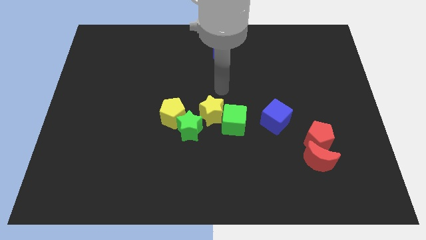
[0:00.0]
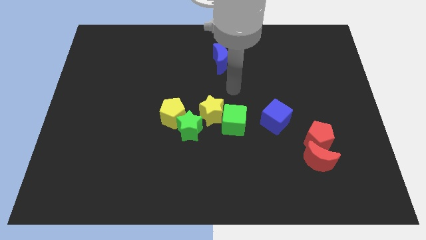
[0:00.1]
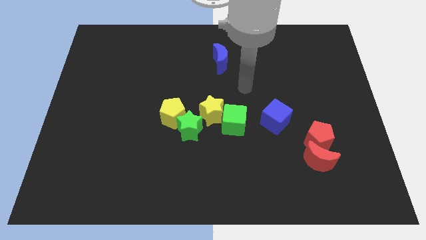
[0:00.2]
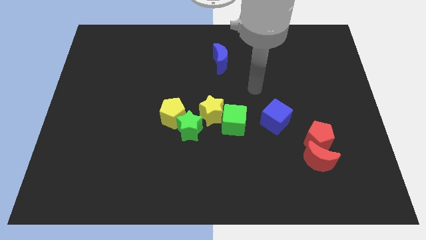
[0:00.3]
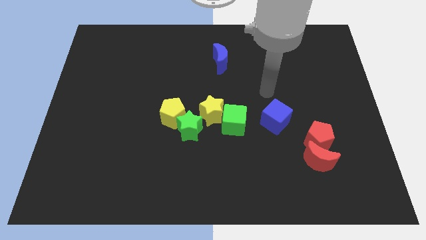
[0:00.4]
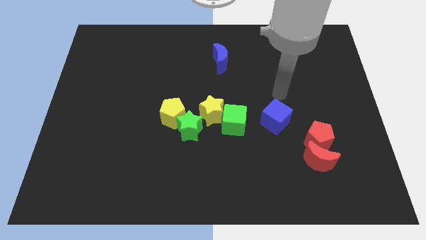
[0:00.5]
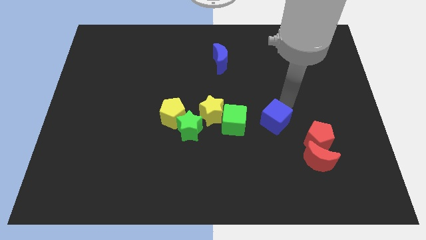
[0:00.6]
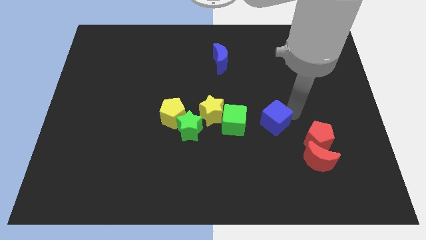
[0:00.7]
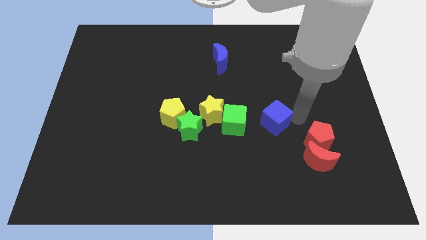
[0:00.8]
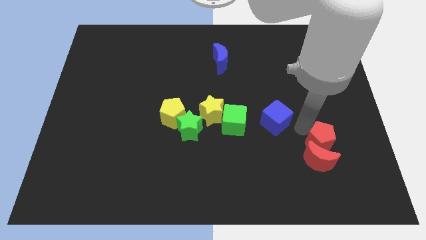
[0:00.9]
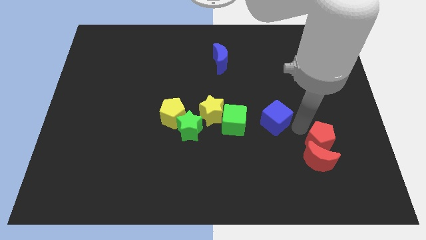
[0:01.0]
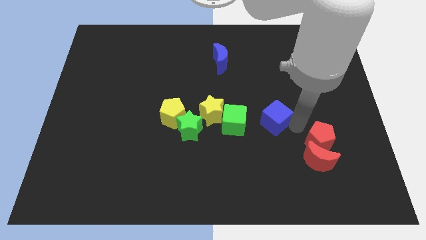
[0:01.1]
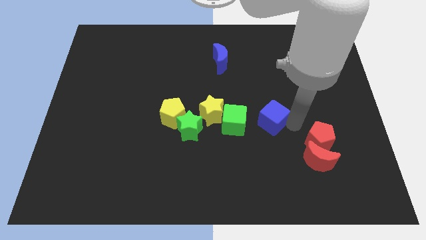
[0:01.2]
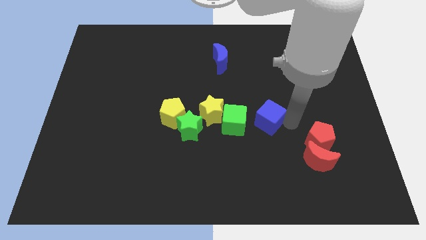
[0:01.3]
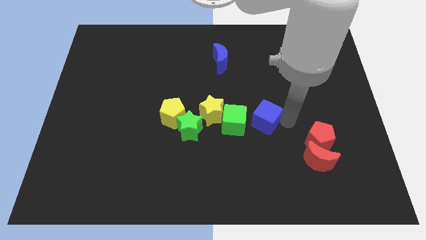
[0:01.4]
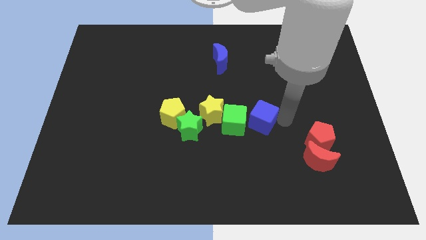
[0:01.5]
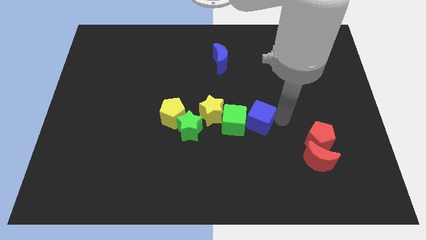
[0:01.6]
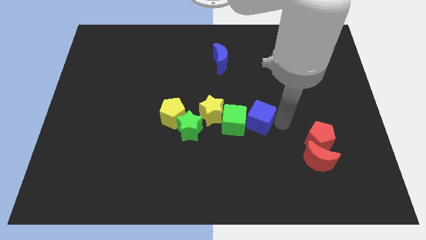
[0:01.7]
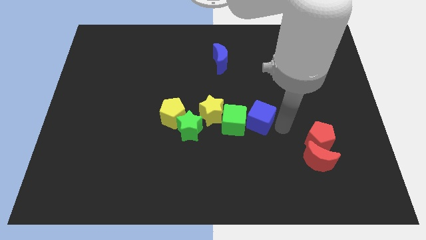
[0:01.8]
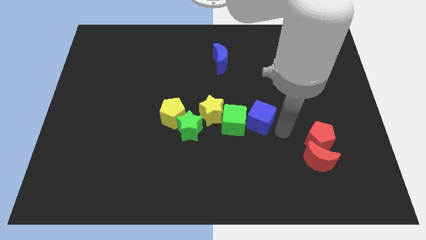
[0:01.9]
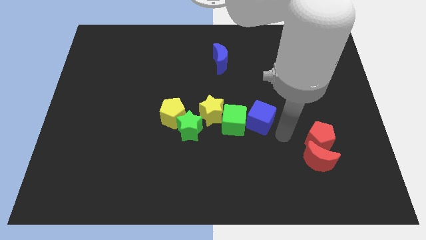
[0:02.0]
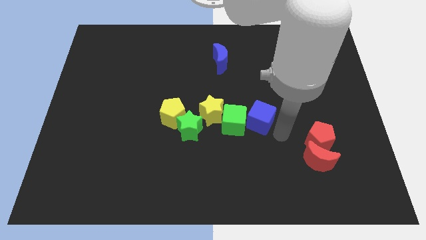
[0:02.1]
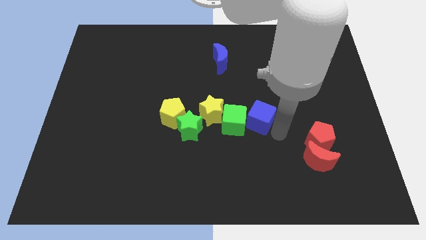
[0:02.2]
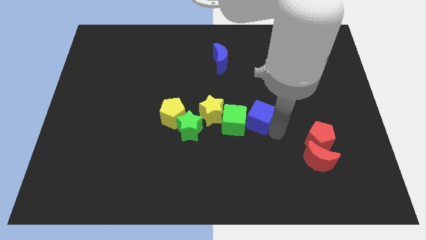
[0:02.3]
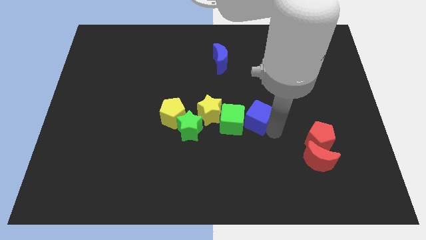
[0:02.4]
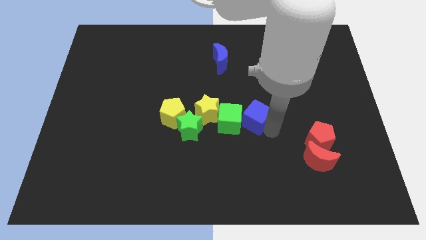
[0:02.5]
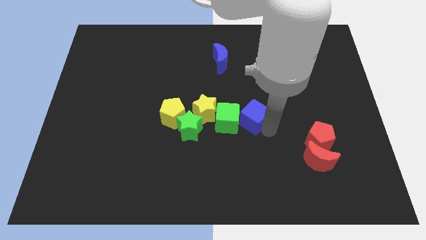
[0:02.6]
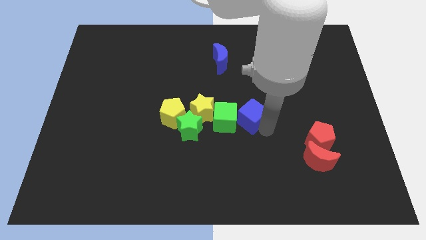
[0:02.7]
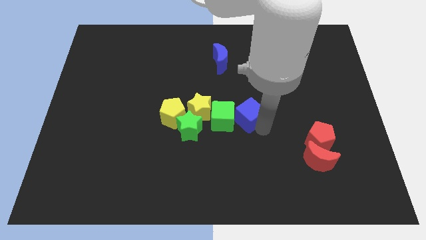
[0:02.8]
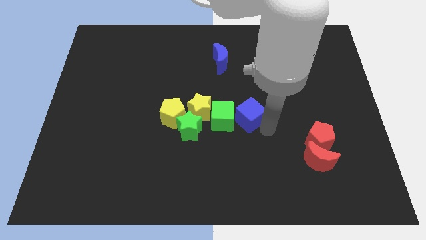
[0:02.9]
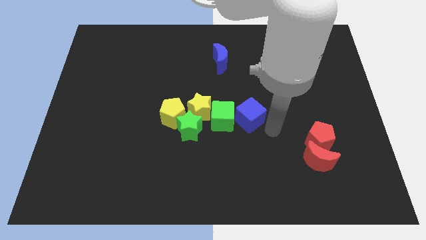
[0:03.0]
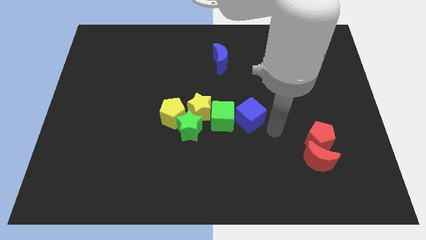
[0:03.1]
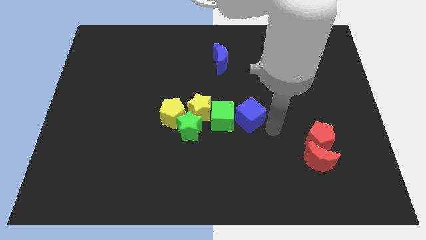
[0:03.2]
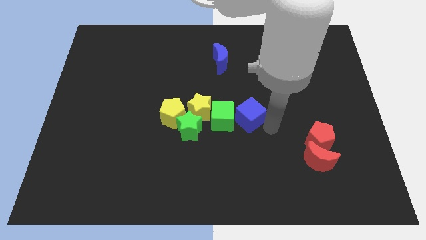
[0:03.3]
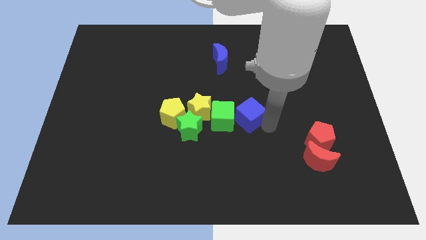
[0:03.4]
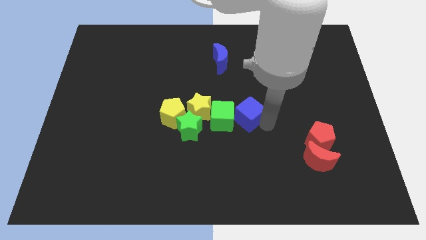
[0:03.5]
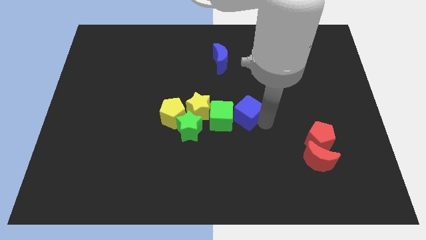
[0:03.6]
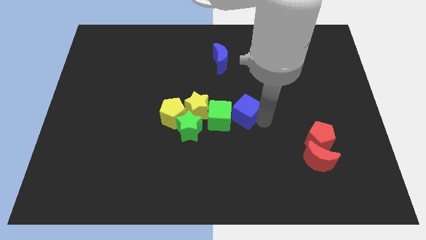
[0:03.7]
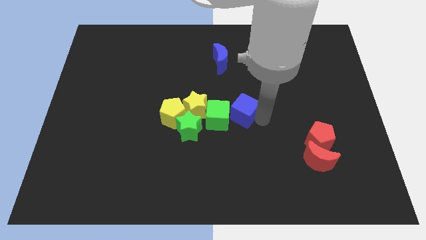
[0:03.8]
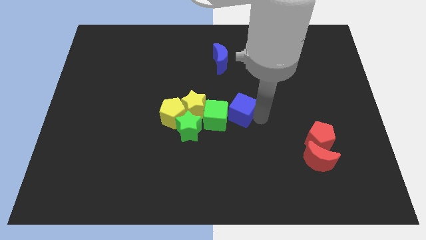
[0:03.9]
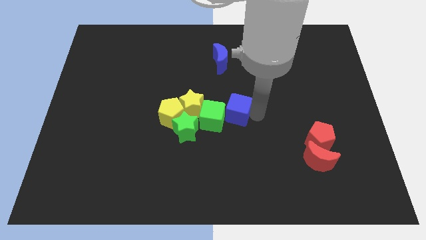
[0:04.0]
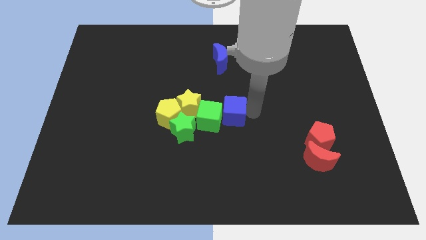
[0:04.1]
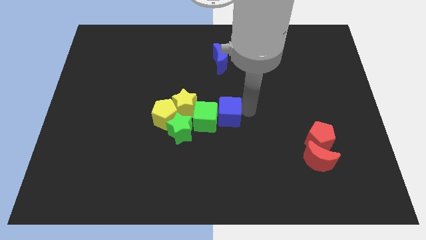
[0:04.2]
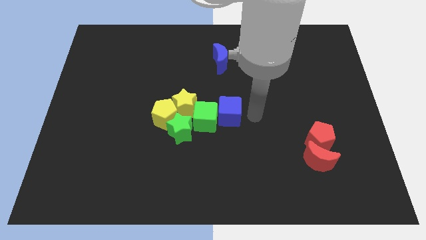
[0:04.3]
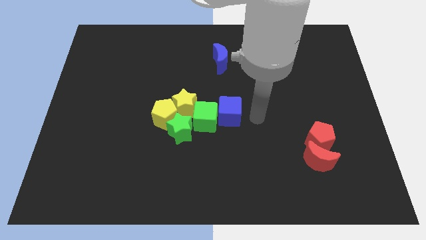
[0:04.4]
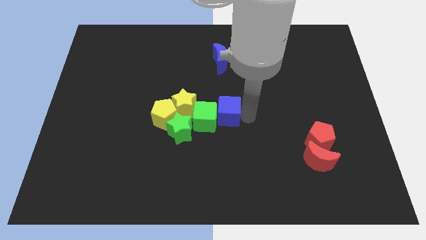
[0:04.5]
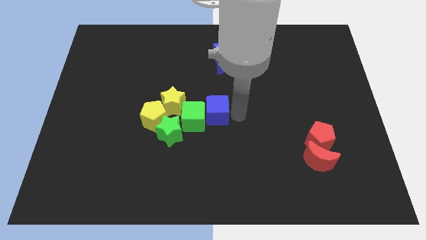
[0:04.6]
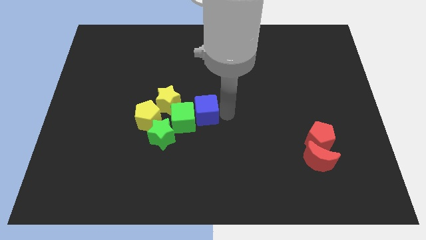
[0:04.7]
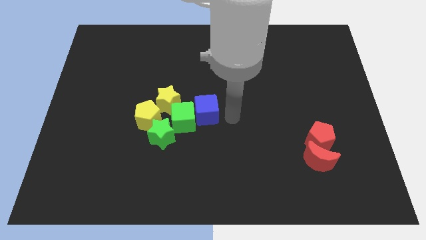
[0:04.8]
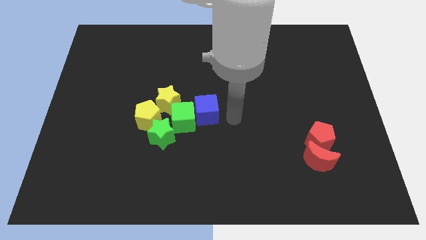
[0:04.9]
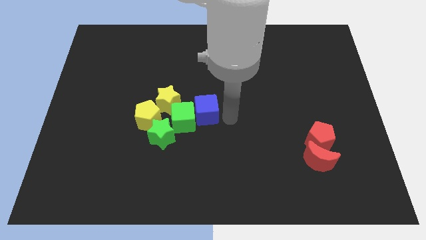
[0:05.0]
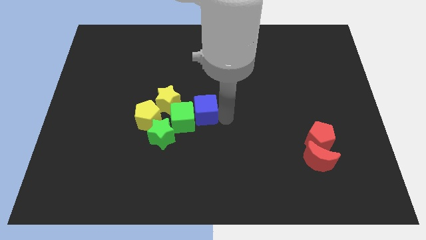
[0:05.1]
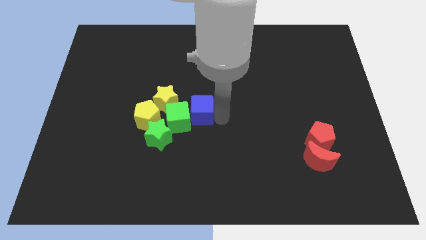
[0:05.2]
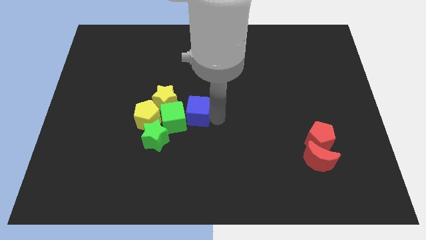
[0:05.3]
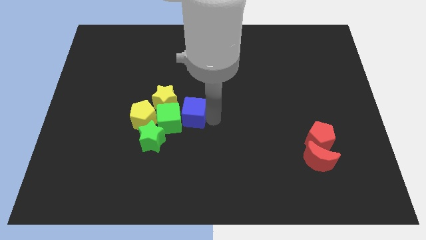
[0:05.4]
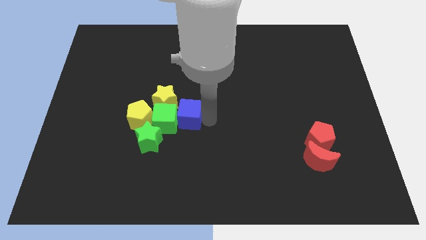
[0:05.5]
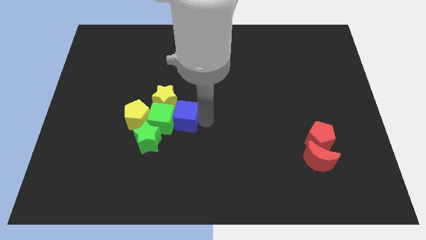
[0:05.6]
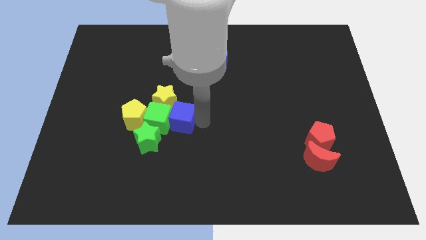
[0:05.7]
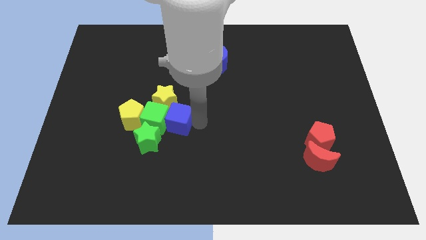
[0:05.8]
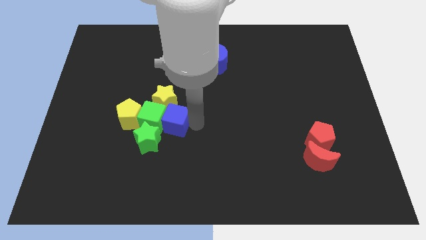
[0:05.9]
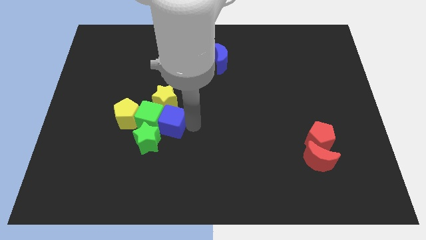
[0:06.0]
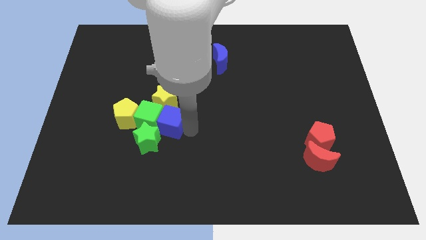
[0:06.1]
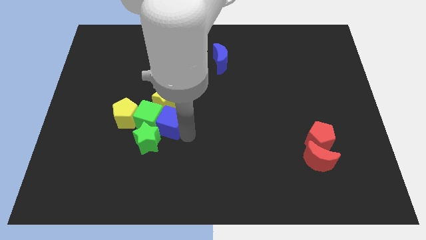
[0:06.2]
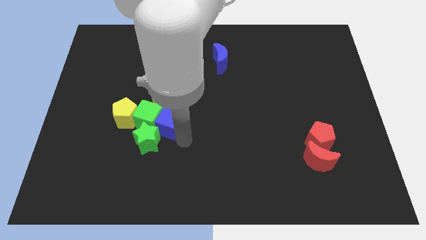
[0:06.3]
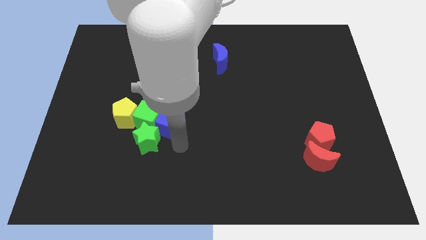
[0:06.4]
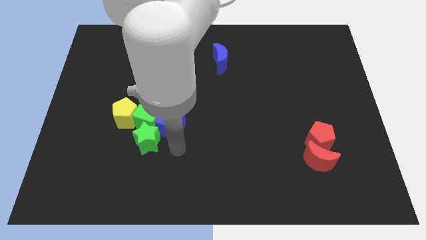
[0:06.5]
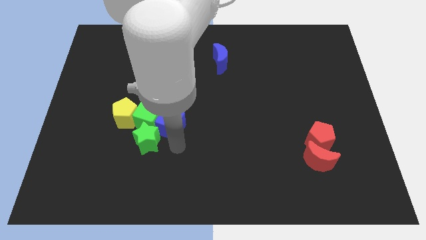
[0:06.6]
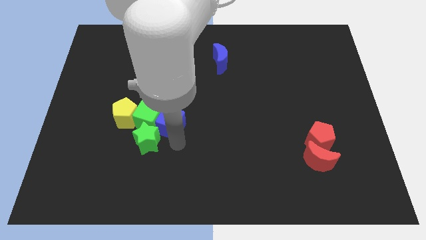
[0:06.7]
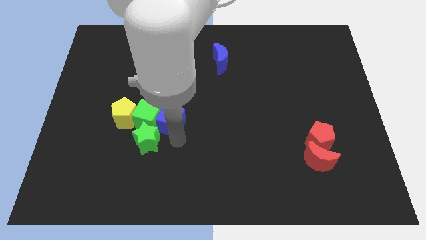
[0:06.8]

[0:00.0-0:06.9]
push the blue cube towards the yellow star
